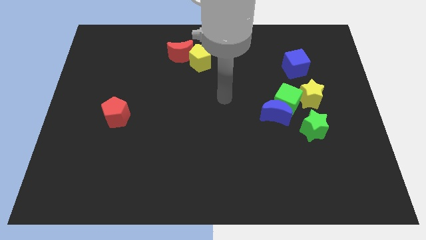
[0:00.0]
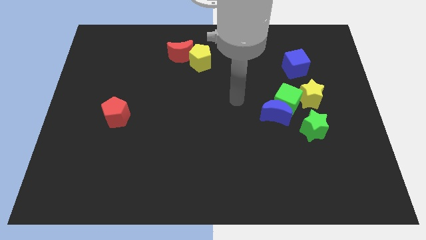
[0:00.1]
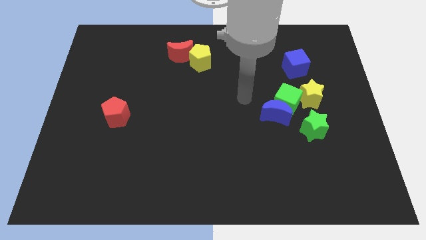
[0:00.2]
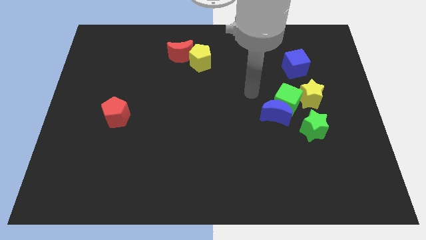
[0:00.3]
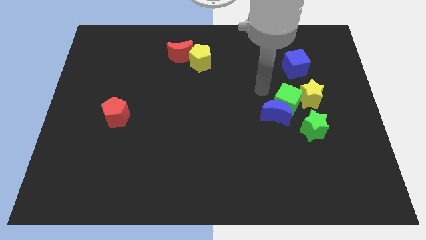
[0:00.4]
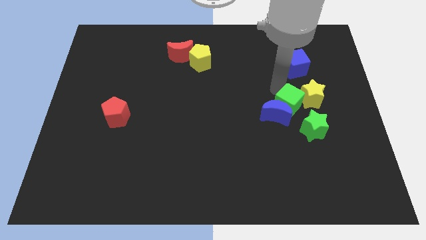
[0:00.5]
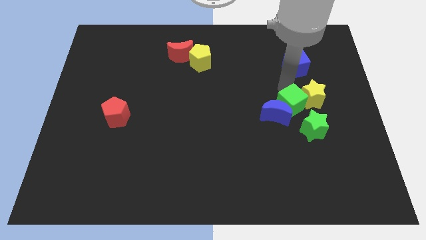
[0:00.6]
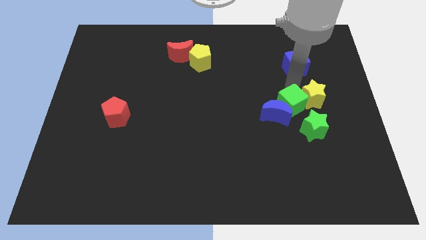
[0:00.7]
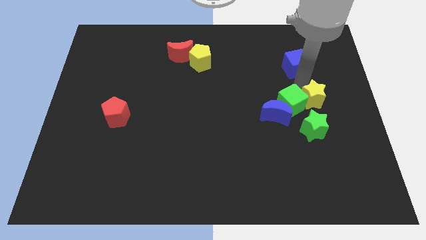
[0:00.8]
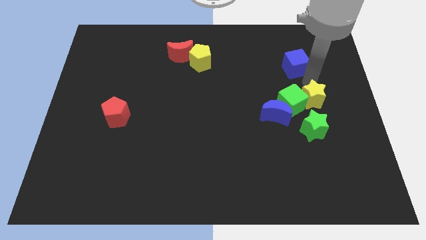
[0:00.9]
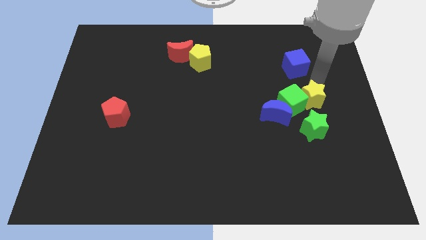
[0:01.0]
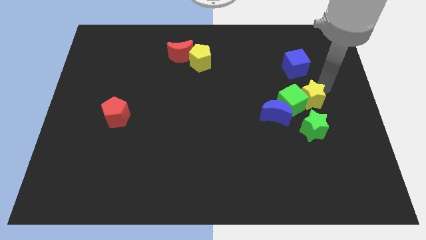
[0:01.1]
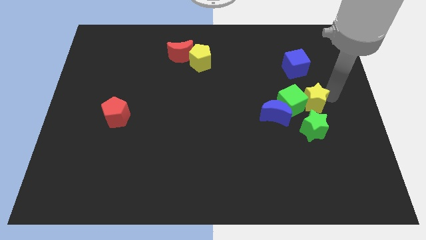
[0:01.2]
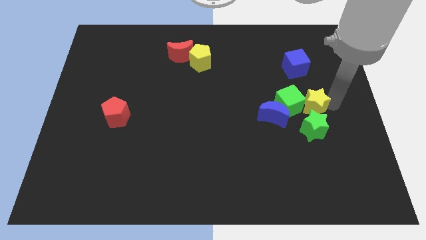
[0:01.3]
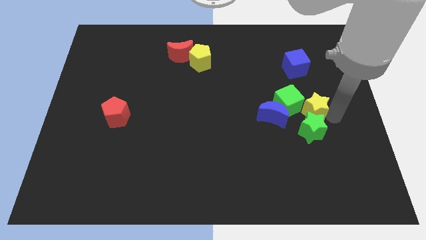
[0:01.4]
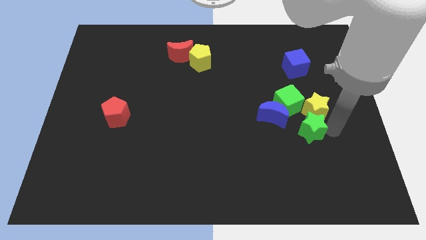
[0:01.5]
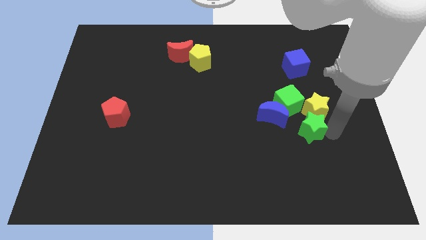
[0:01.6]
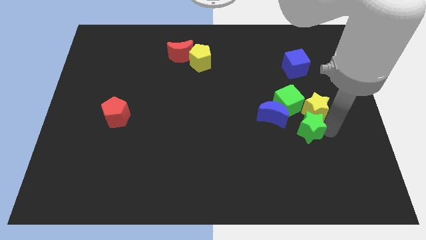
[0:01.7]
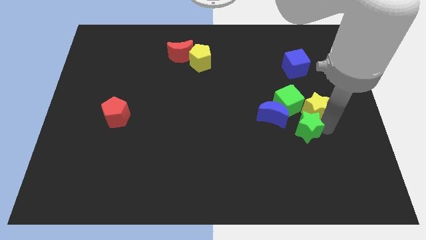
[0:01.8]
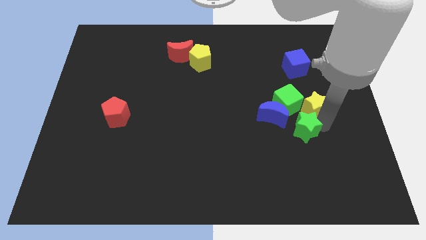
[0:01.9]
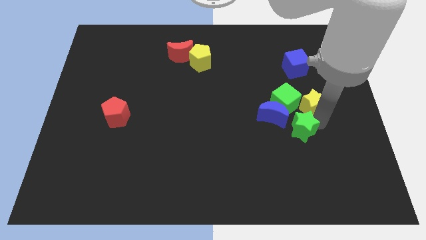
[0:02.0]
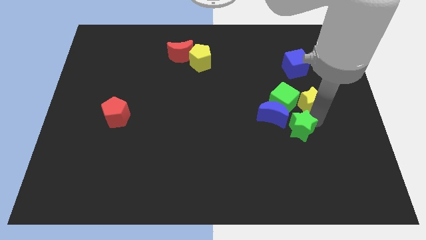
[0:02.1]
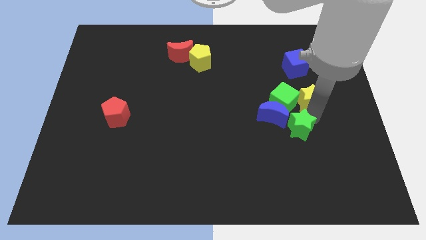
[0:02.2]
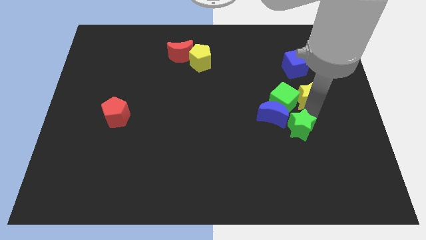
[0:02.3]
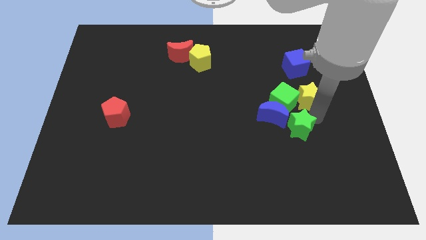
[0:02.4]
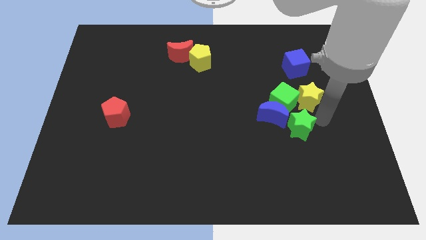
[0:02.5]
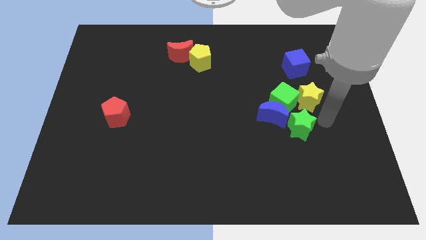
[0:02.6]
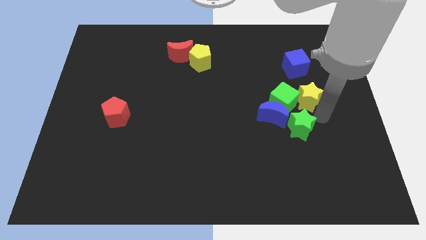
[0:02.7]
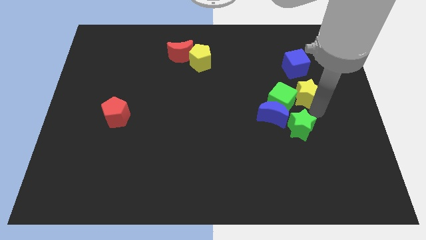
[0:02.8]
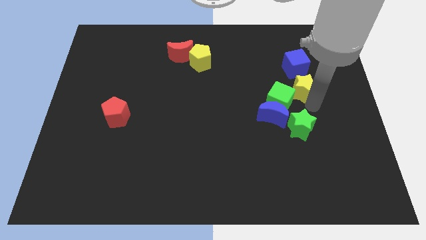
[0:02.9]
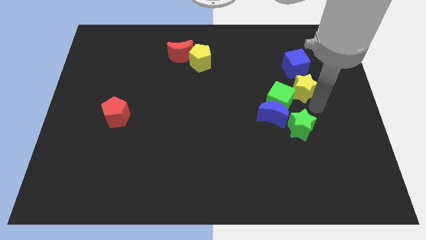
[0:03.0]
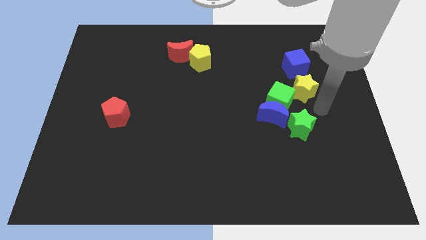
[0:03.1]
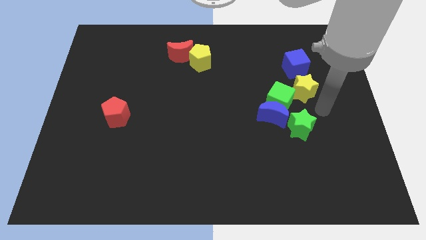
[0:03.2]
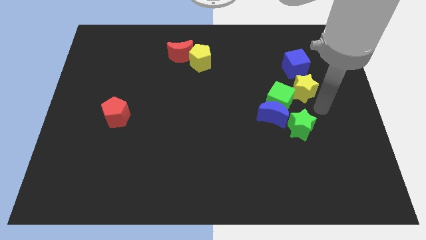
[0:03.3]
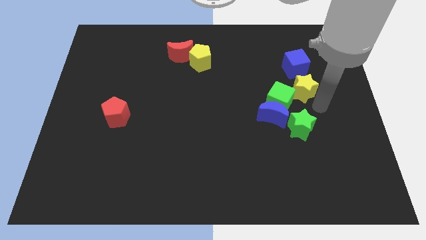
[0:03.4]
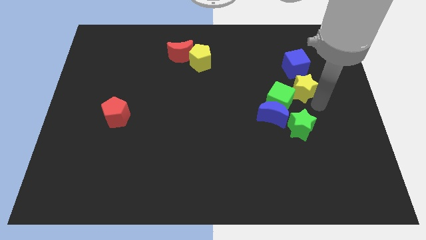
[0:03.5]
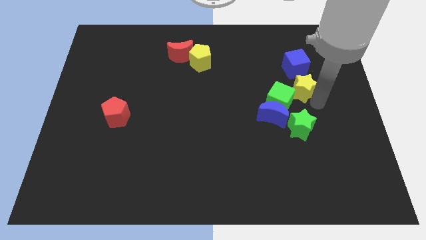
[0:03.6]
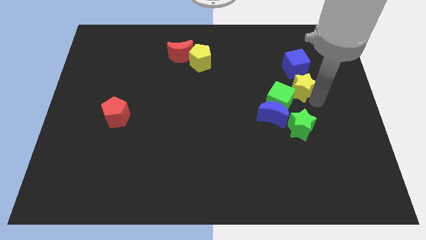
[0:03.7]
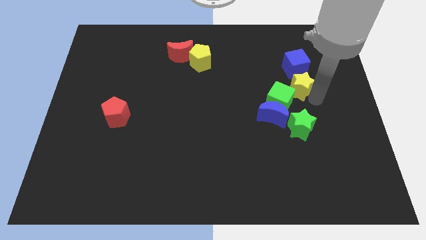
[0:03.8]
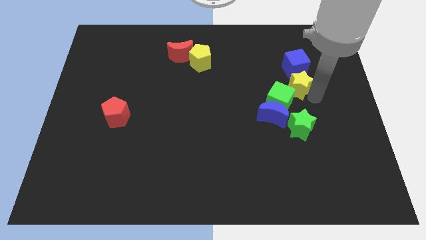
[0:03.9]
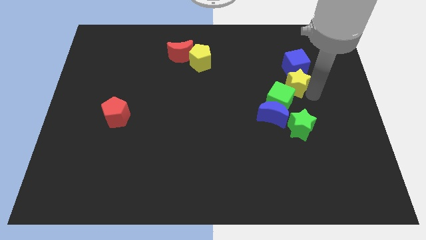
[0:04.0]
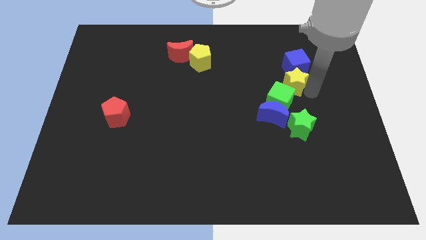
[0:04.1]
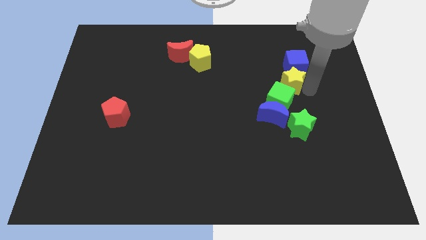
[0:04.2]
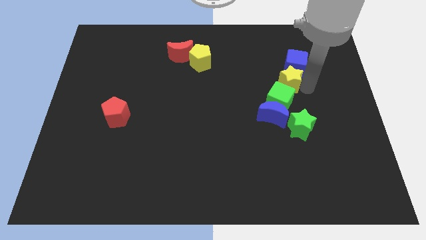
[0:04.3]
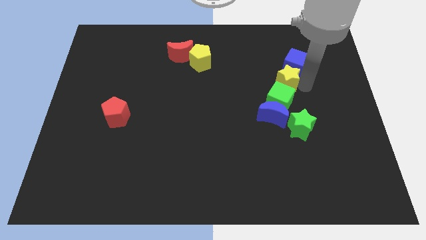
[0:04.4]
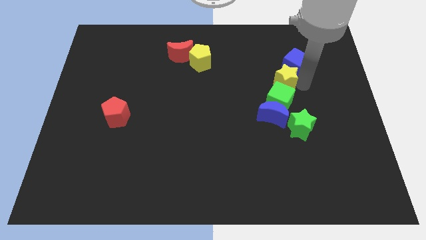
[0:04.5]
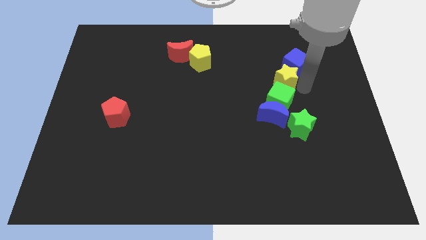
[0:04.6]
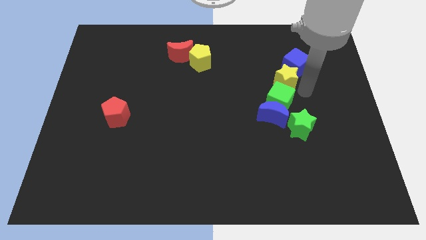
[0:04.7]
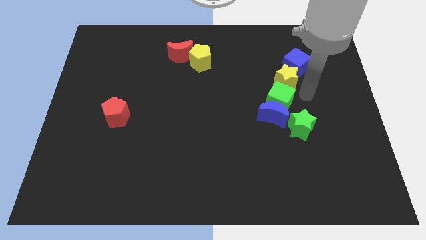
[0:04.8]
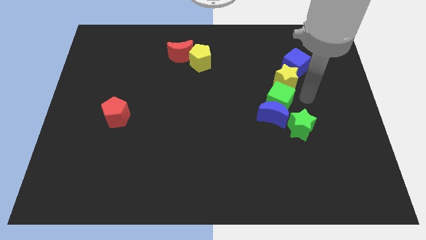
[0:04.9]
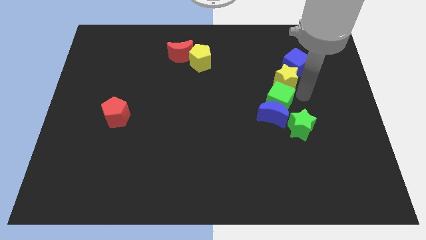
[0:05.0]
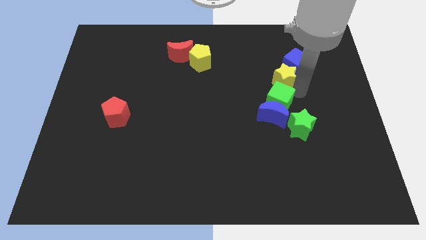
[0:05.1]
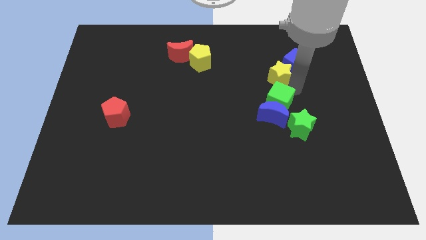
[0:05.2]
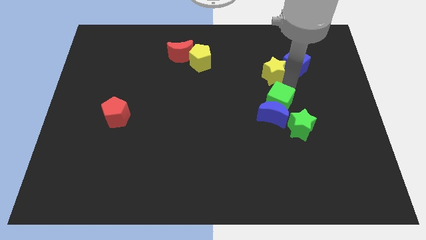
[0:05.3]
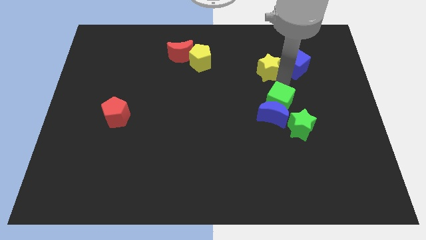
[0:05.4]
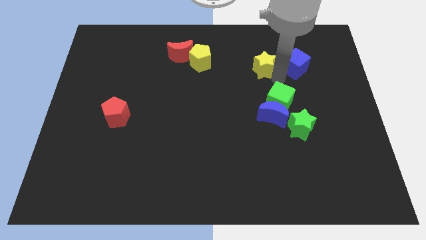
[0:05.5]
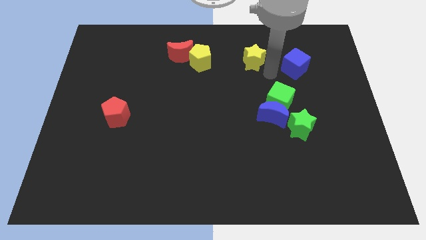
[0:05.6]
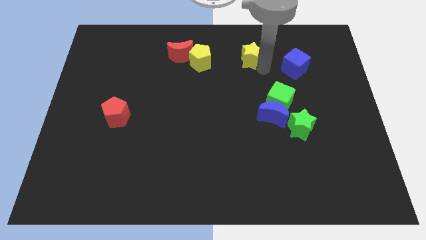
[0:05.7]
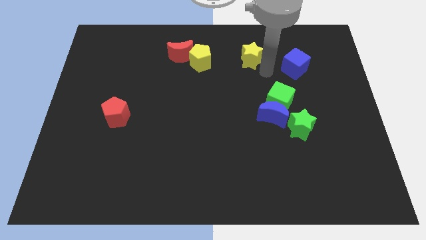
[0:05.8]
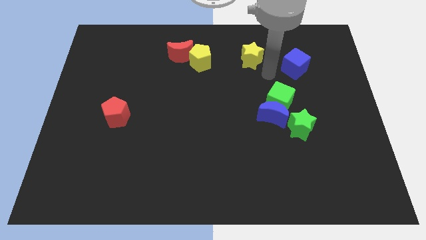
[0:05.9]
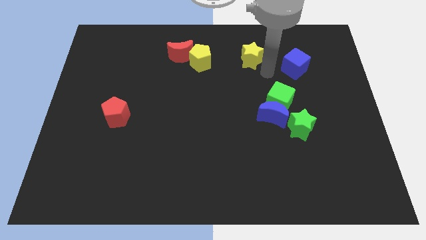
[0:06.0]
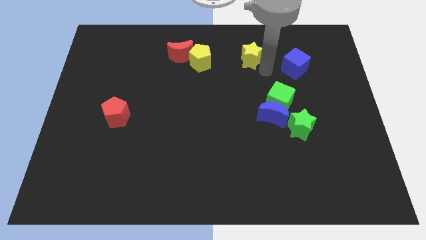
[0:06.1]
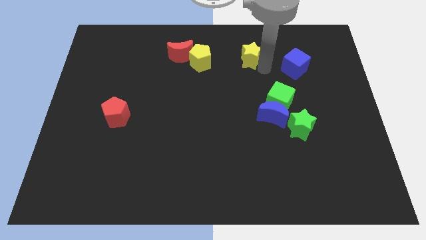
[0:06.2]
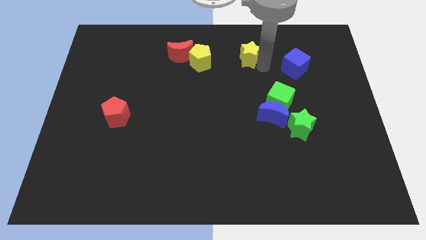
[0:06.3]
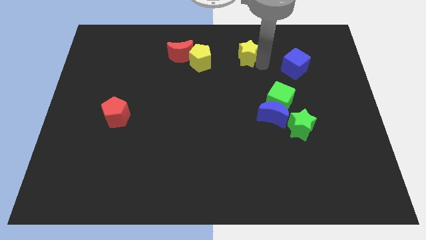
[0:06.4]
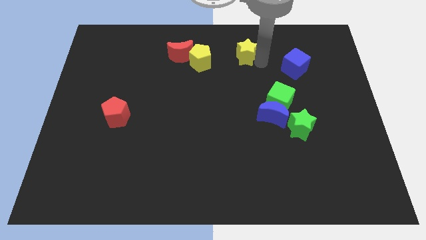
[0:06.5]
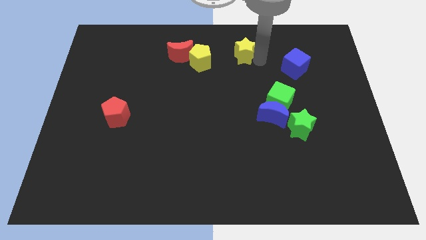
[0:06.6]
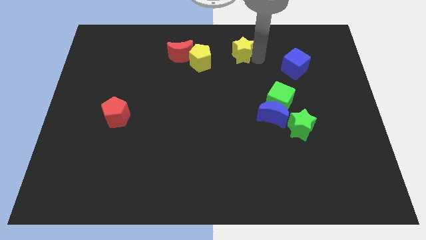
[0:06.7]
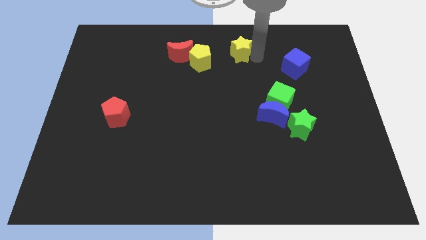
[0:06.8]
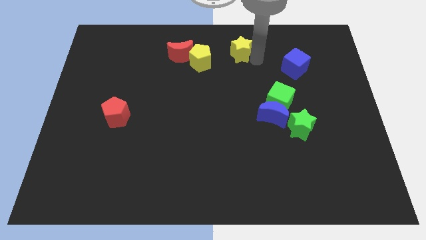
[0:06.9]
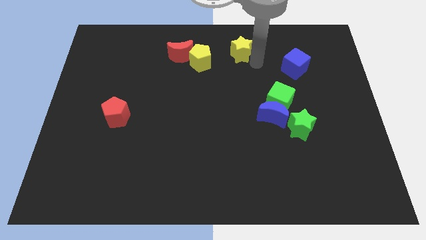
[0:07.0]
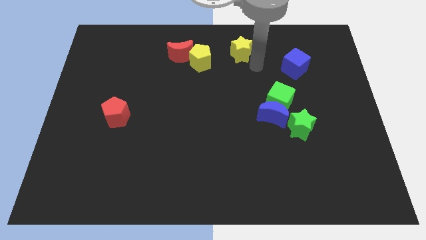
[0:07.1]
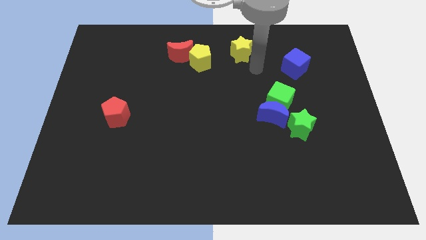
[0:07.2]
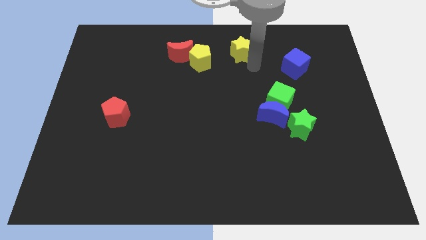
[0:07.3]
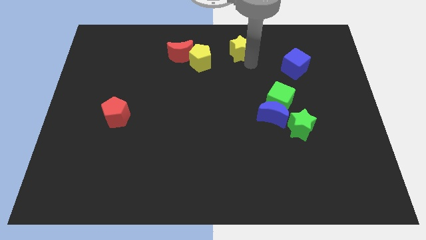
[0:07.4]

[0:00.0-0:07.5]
push the yellow star to the towards your base
